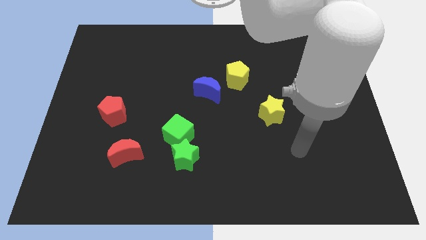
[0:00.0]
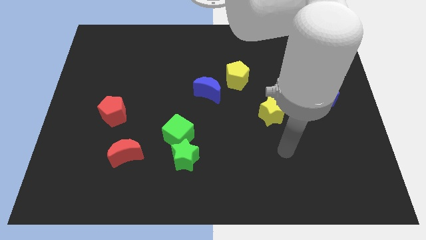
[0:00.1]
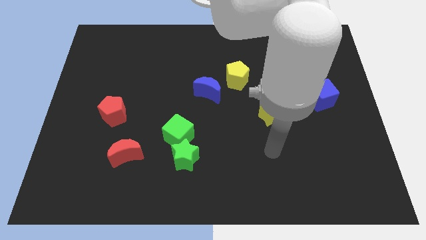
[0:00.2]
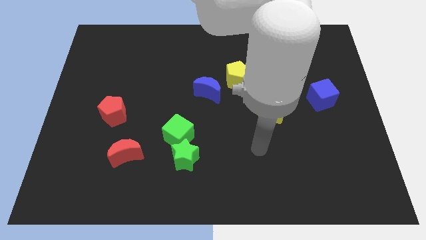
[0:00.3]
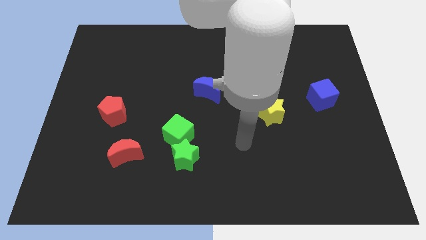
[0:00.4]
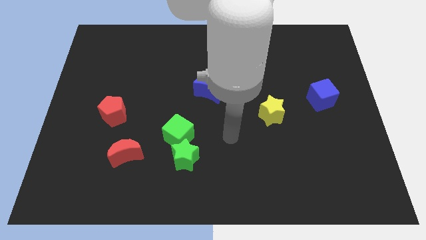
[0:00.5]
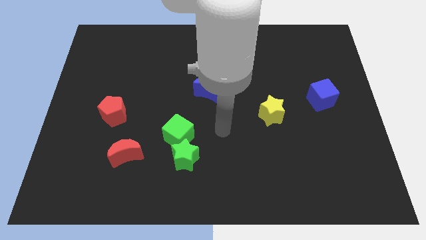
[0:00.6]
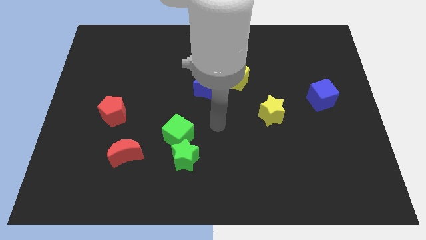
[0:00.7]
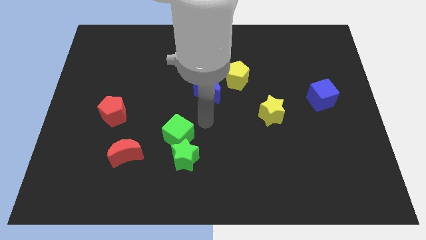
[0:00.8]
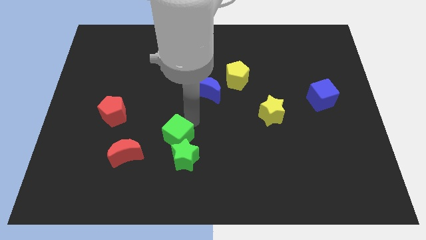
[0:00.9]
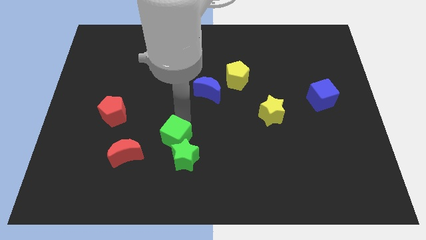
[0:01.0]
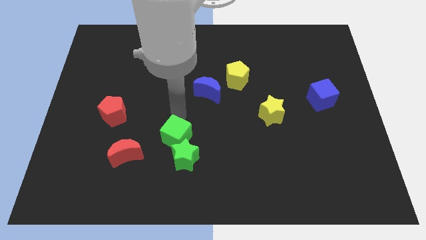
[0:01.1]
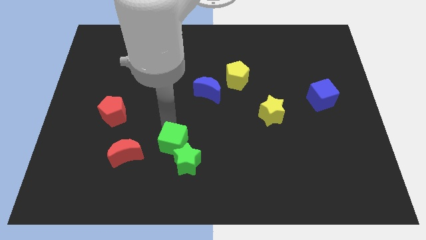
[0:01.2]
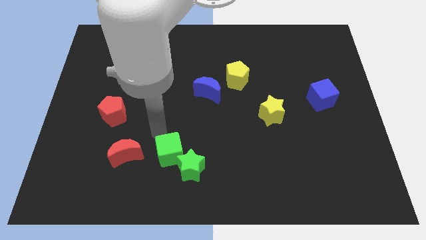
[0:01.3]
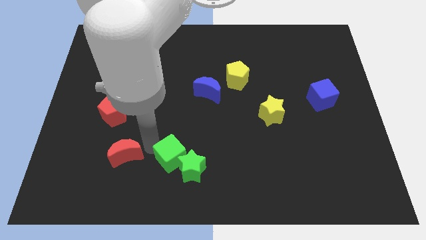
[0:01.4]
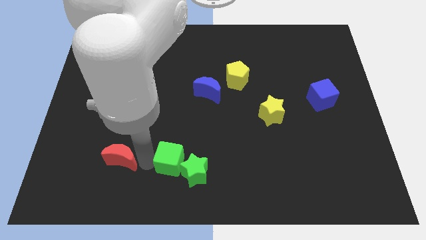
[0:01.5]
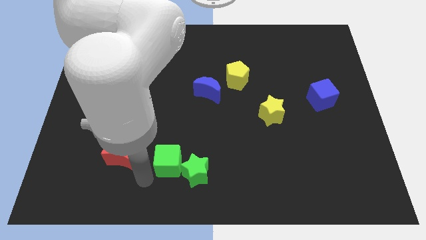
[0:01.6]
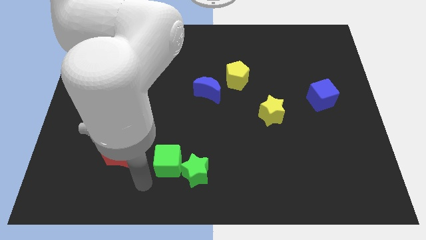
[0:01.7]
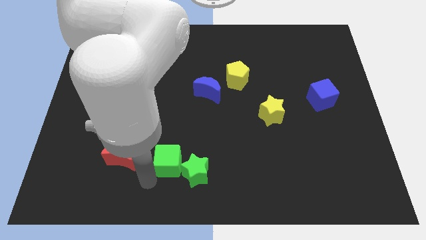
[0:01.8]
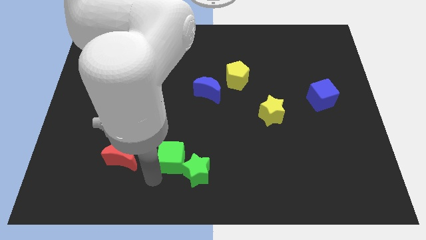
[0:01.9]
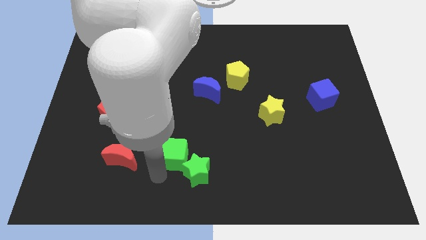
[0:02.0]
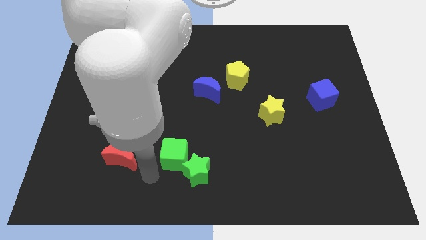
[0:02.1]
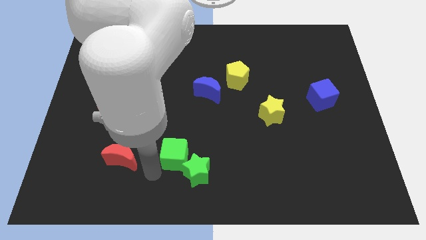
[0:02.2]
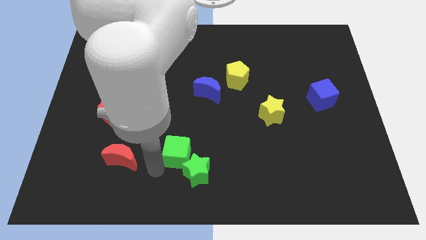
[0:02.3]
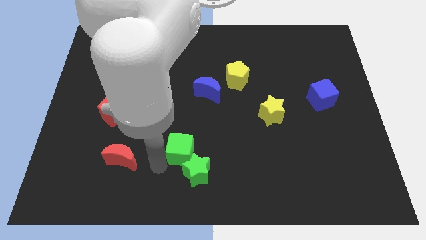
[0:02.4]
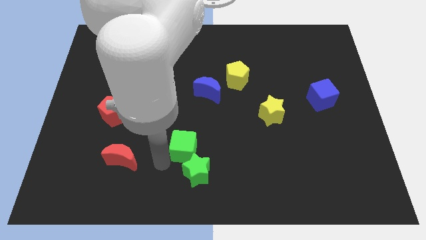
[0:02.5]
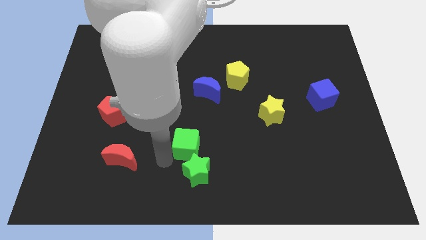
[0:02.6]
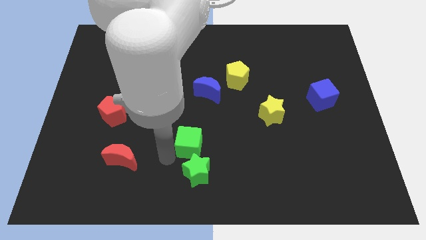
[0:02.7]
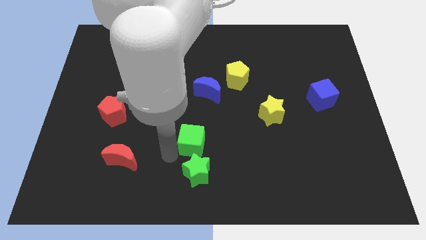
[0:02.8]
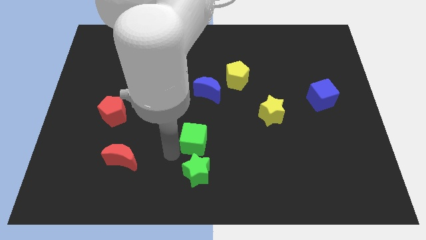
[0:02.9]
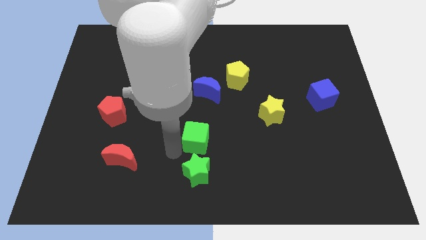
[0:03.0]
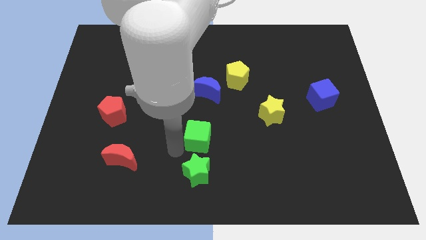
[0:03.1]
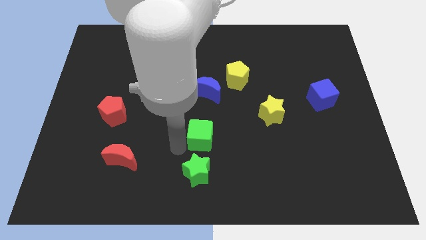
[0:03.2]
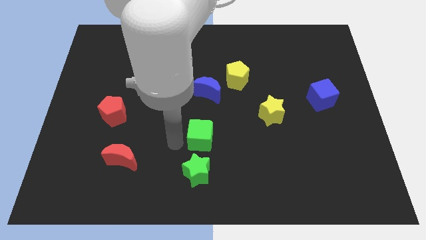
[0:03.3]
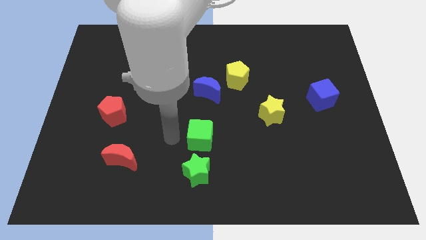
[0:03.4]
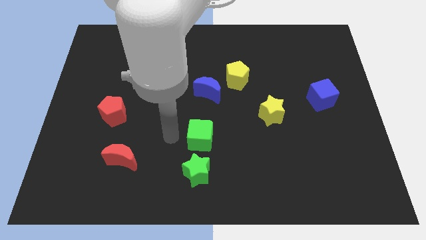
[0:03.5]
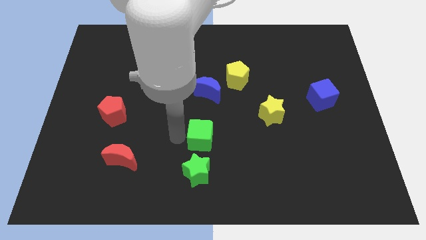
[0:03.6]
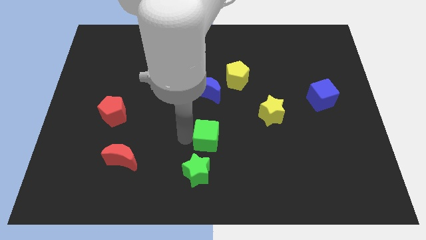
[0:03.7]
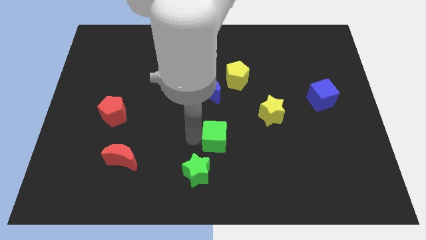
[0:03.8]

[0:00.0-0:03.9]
push the green cube a little bit right

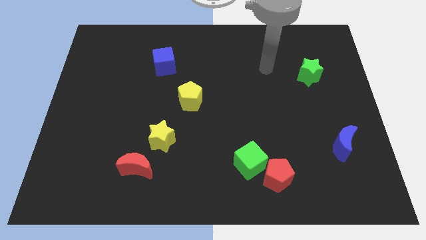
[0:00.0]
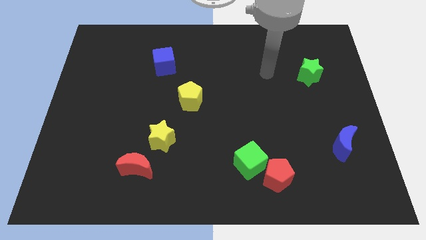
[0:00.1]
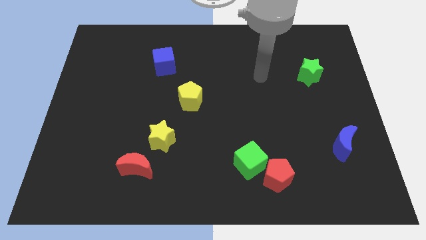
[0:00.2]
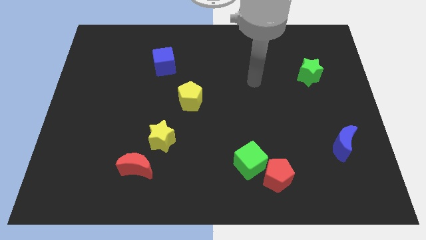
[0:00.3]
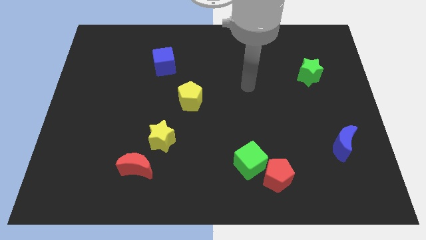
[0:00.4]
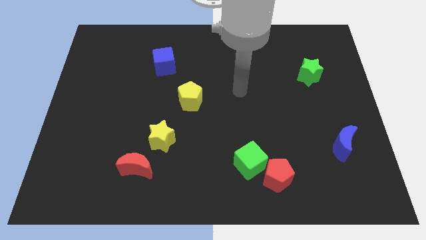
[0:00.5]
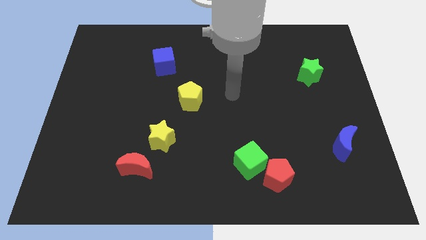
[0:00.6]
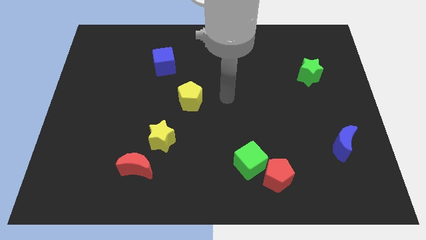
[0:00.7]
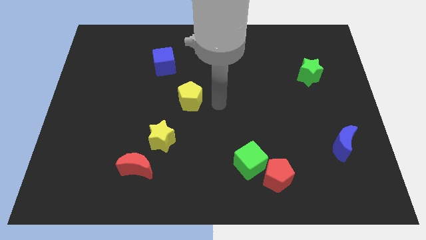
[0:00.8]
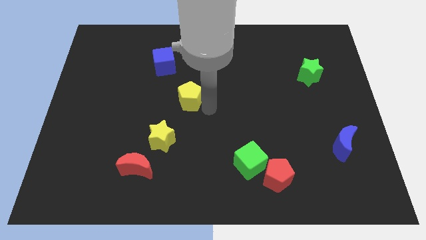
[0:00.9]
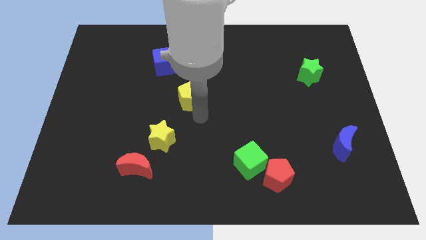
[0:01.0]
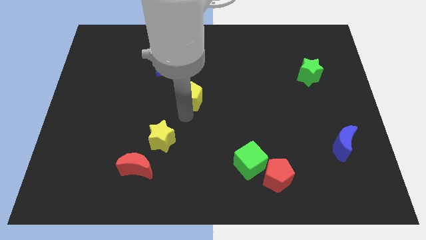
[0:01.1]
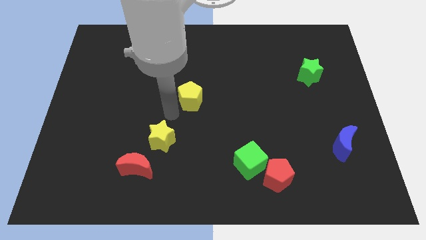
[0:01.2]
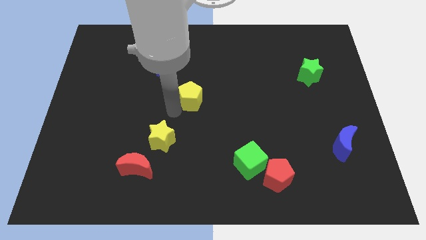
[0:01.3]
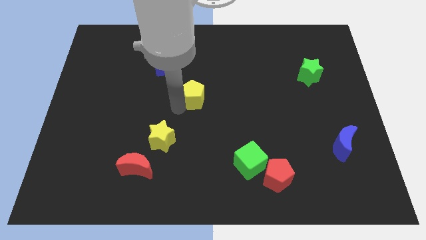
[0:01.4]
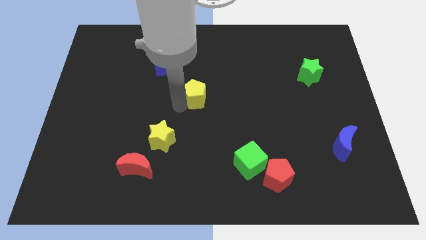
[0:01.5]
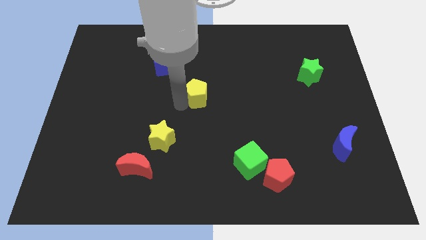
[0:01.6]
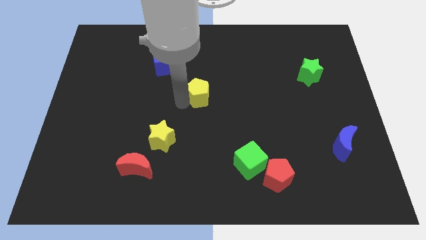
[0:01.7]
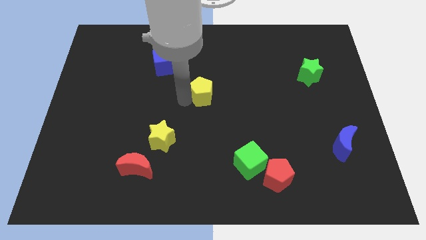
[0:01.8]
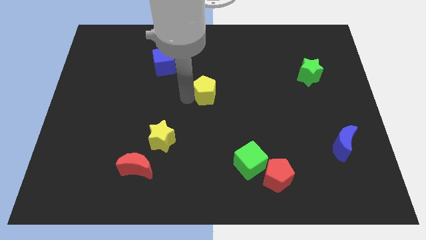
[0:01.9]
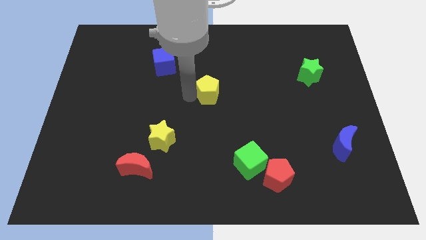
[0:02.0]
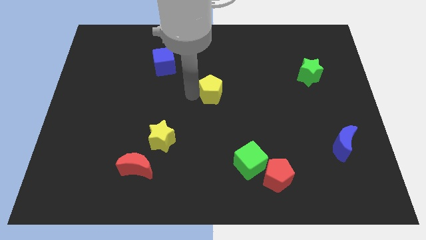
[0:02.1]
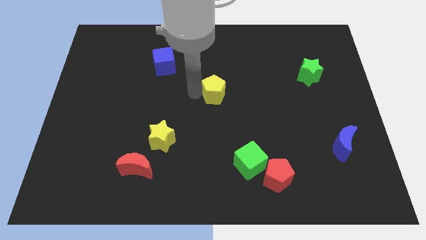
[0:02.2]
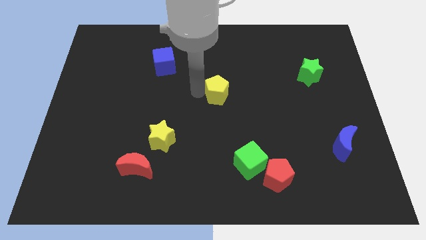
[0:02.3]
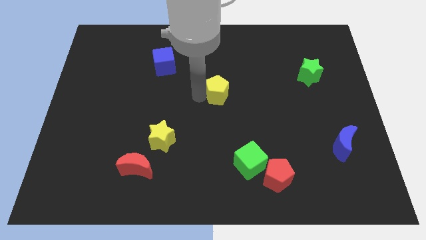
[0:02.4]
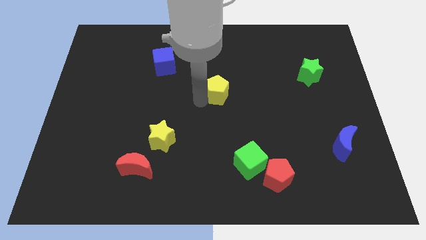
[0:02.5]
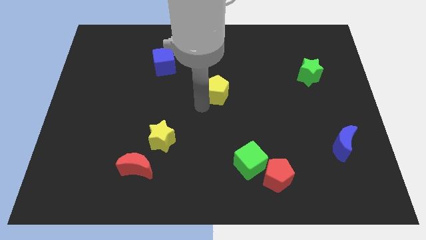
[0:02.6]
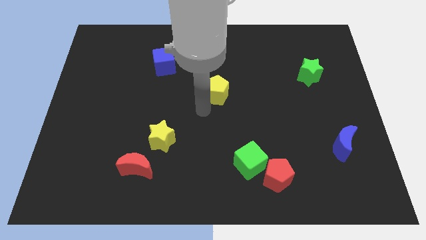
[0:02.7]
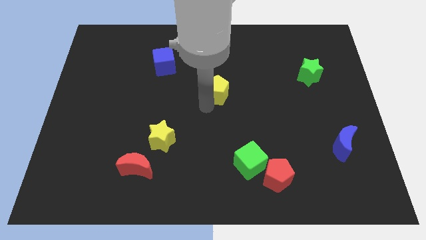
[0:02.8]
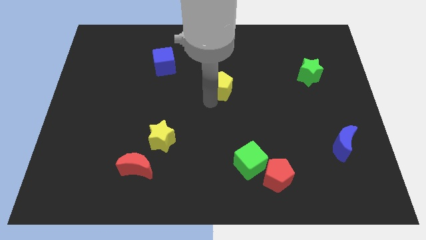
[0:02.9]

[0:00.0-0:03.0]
slide the yellow pentagon a little bit upwards and then right

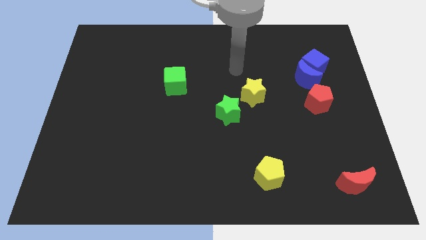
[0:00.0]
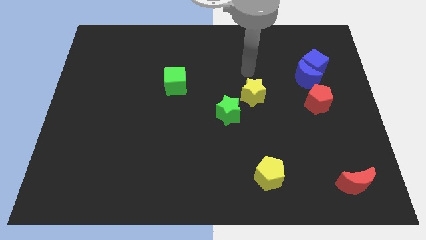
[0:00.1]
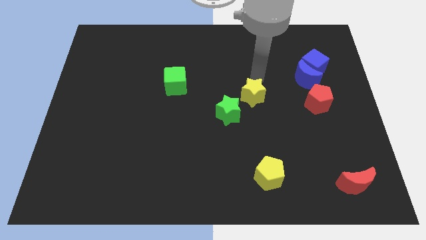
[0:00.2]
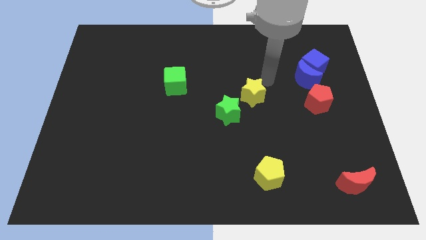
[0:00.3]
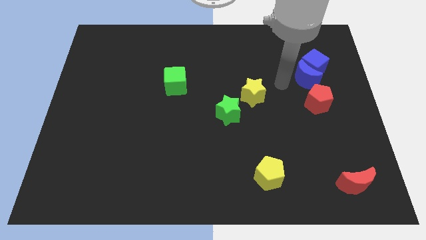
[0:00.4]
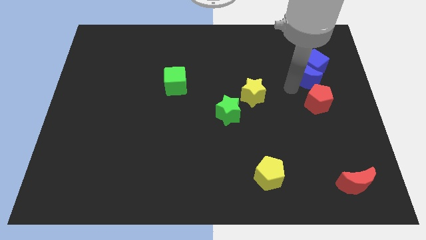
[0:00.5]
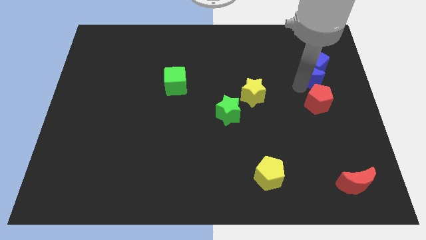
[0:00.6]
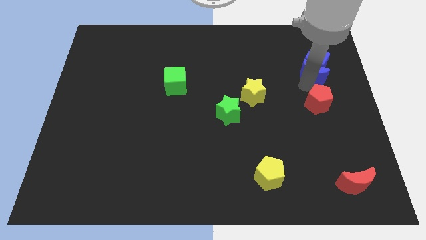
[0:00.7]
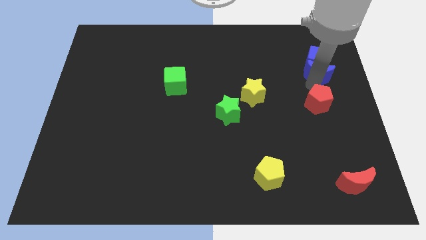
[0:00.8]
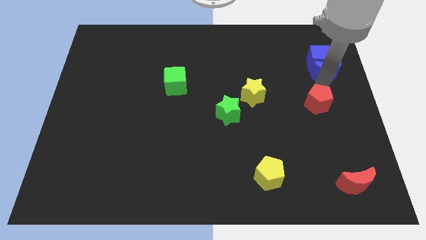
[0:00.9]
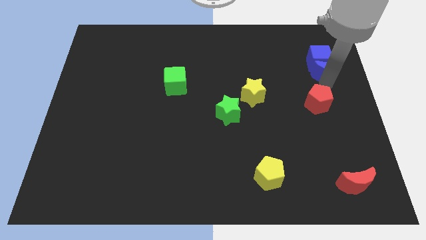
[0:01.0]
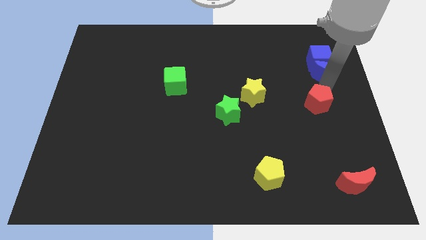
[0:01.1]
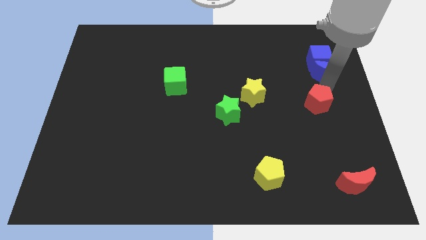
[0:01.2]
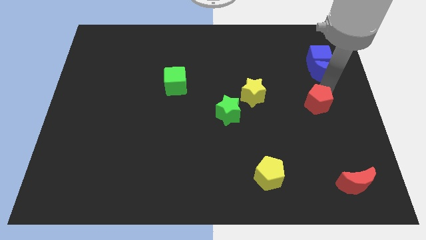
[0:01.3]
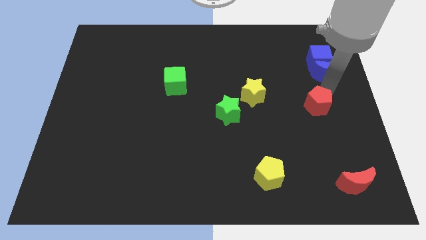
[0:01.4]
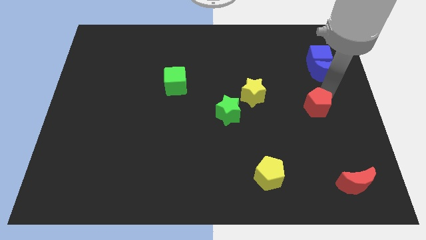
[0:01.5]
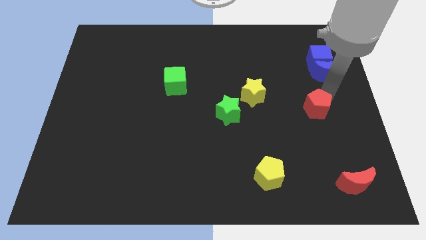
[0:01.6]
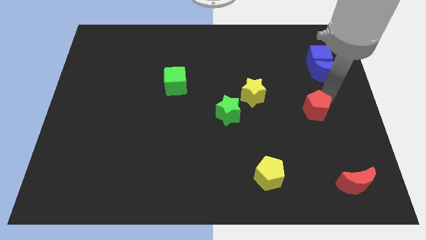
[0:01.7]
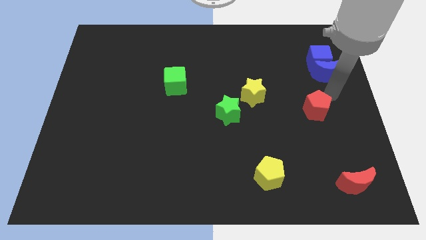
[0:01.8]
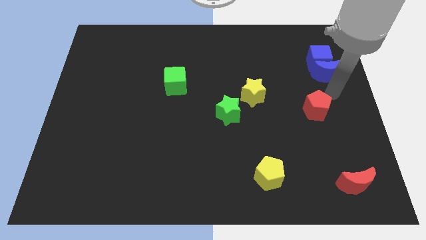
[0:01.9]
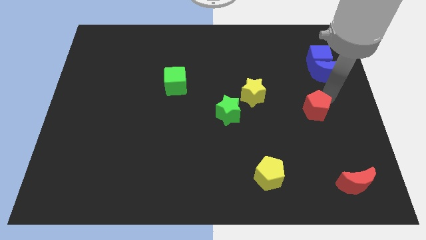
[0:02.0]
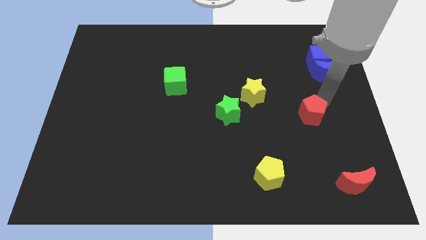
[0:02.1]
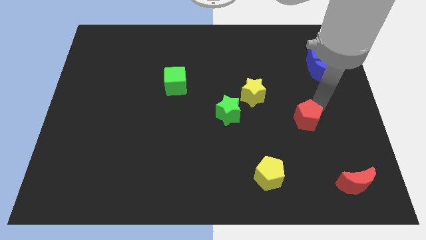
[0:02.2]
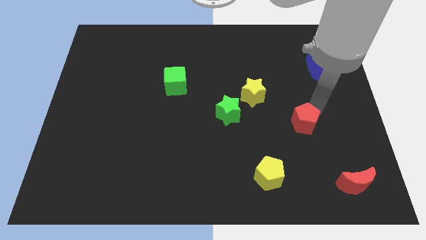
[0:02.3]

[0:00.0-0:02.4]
slightly slide the red pentagon diagonally downwards and left
